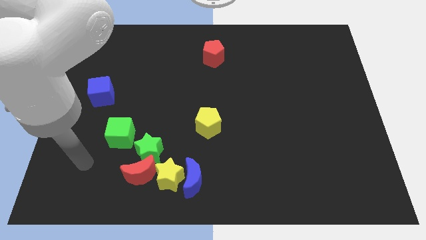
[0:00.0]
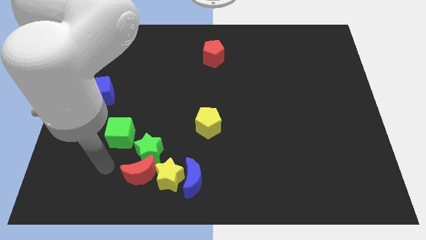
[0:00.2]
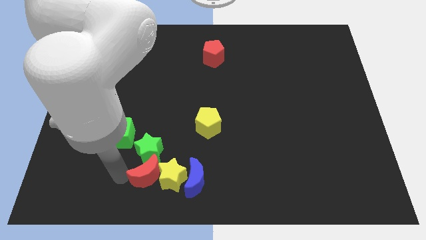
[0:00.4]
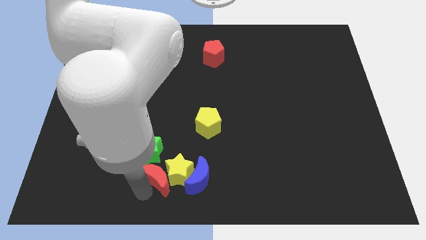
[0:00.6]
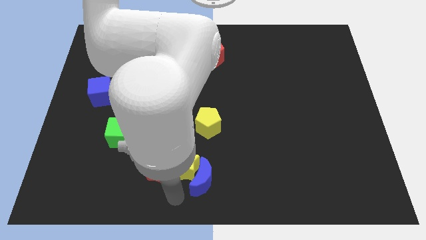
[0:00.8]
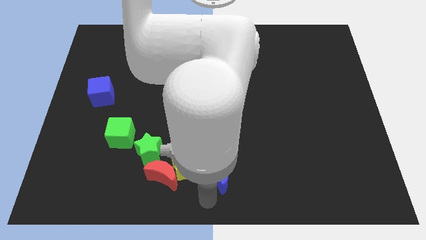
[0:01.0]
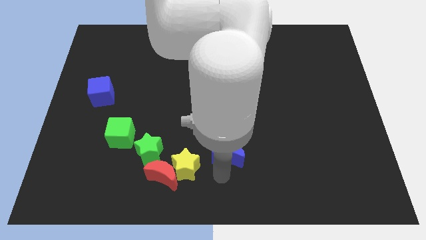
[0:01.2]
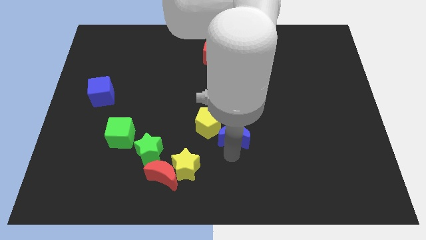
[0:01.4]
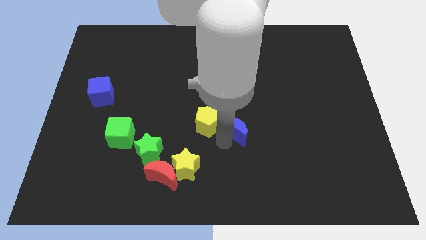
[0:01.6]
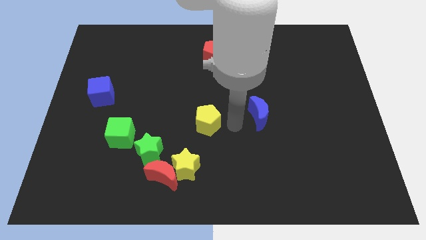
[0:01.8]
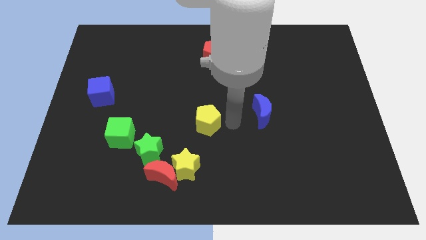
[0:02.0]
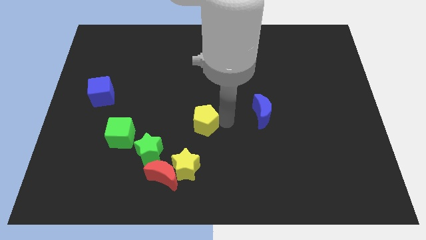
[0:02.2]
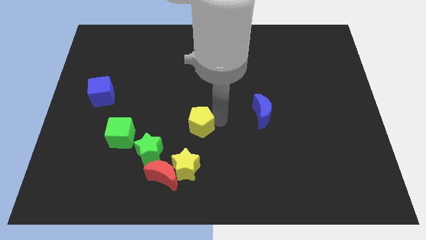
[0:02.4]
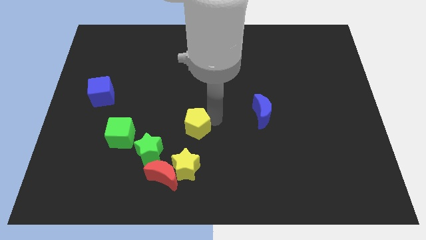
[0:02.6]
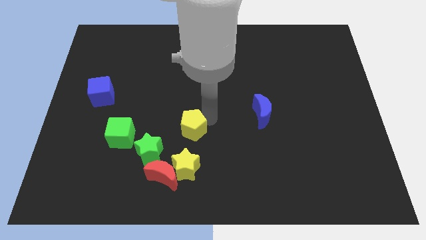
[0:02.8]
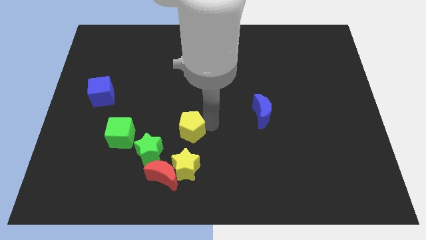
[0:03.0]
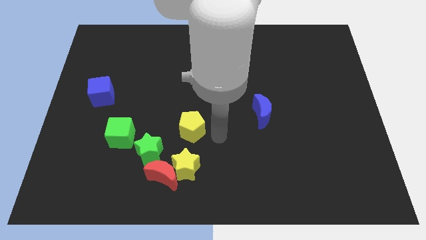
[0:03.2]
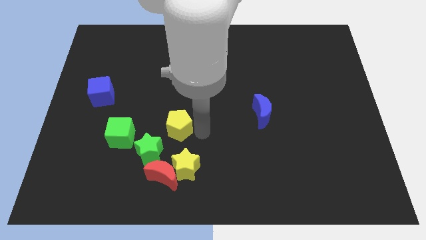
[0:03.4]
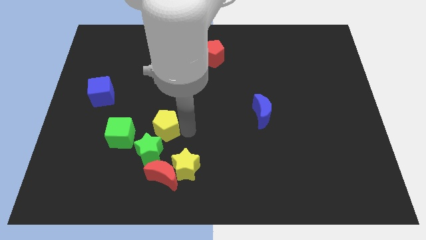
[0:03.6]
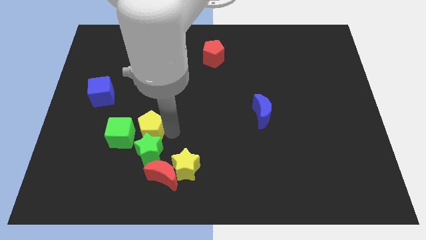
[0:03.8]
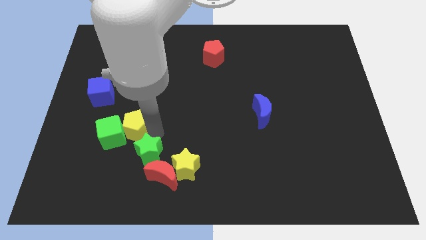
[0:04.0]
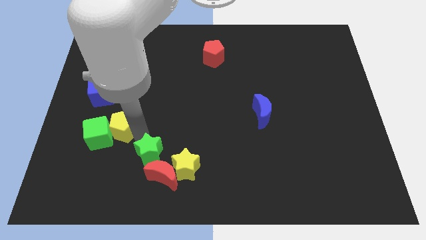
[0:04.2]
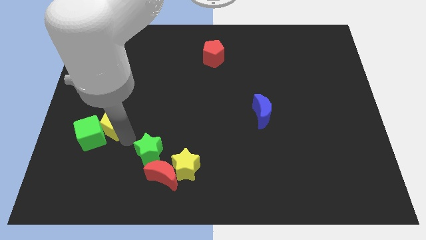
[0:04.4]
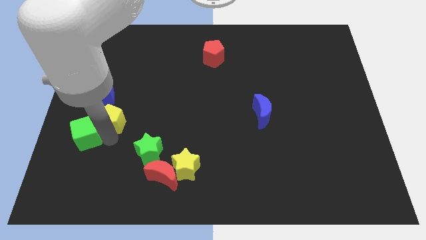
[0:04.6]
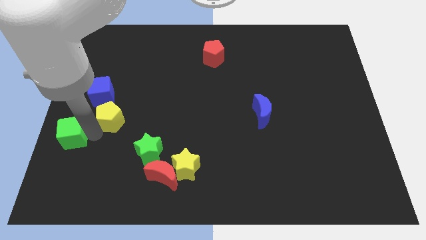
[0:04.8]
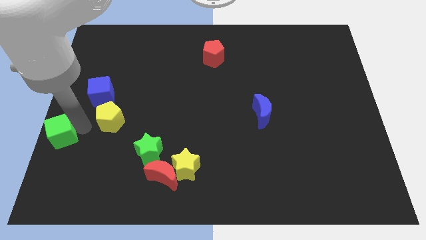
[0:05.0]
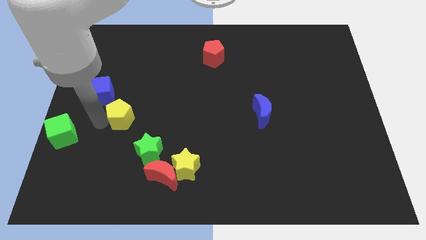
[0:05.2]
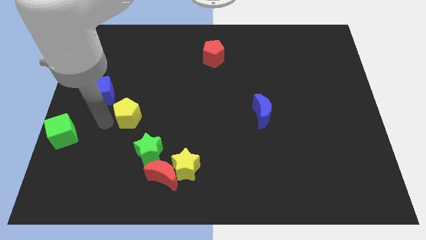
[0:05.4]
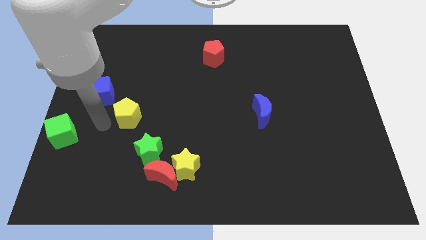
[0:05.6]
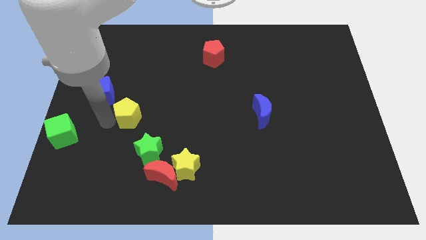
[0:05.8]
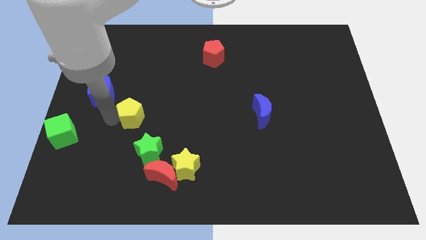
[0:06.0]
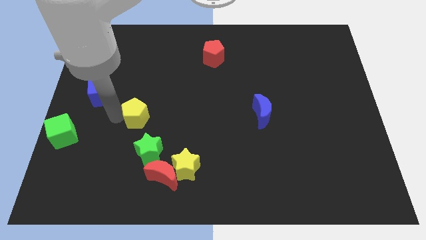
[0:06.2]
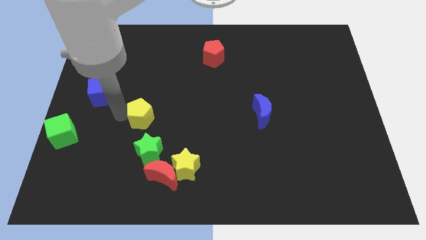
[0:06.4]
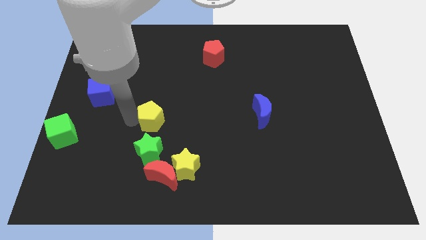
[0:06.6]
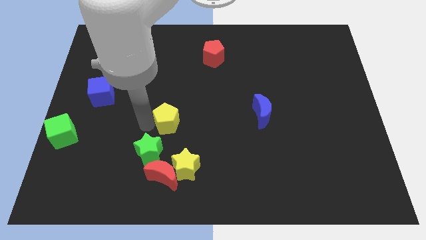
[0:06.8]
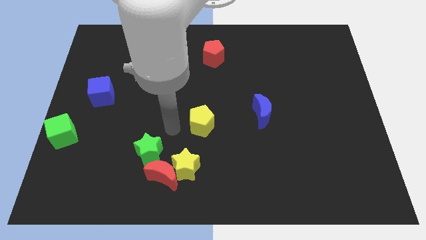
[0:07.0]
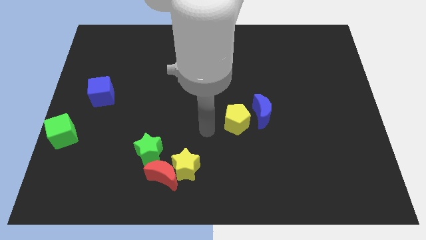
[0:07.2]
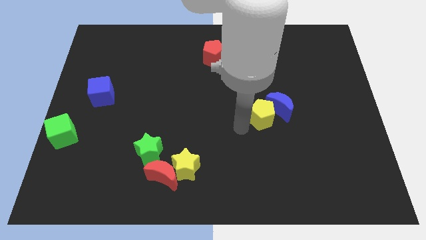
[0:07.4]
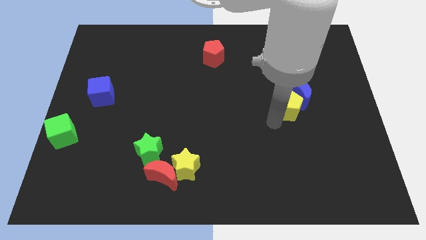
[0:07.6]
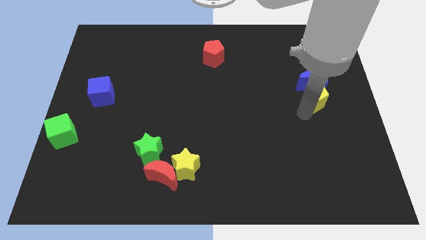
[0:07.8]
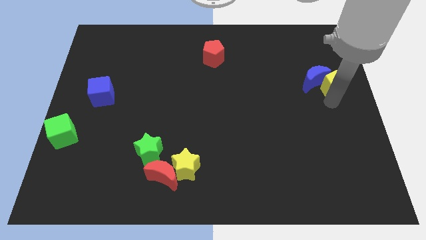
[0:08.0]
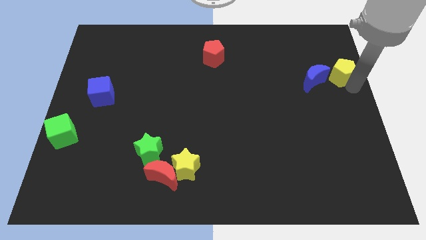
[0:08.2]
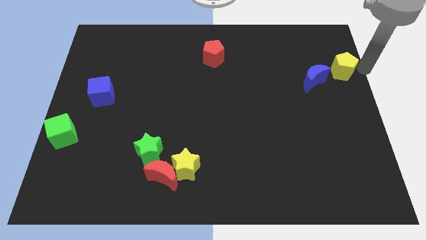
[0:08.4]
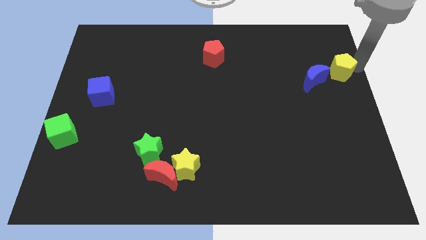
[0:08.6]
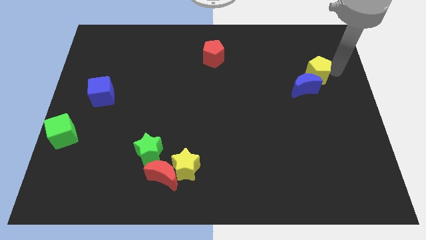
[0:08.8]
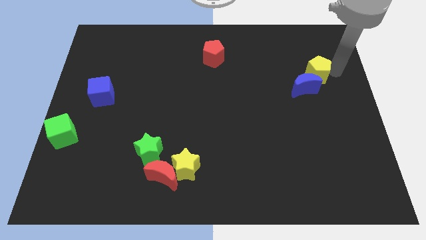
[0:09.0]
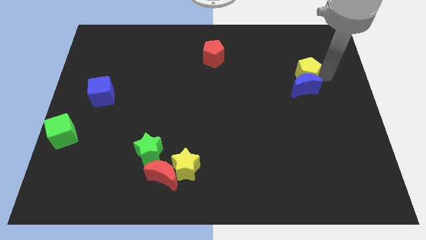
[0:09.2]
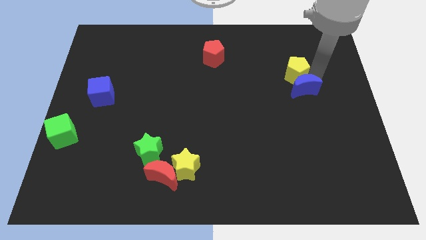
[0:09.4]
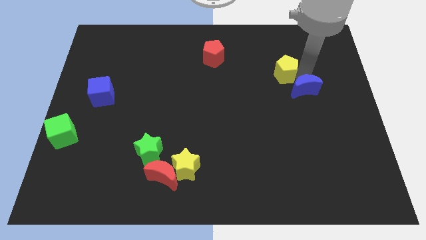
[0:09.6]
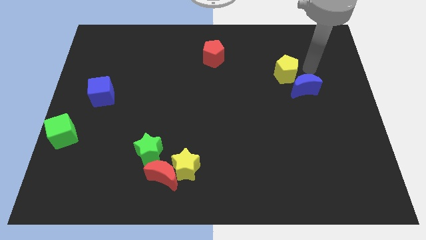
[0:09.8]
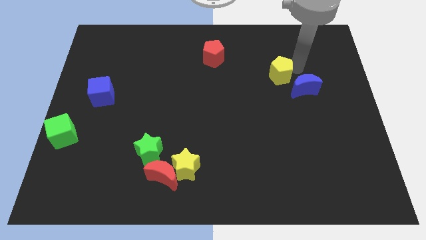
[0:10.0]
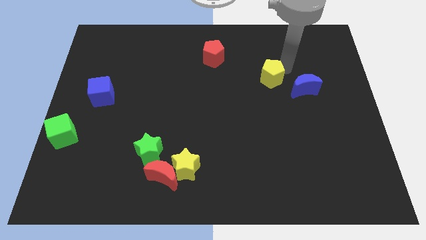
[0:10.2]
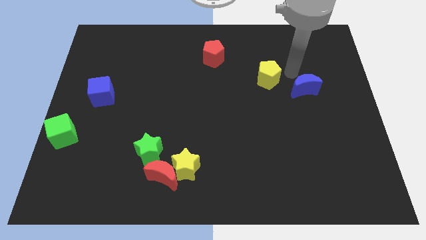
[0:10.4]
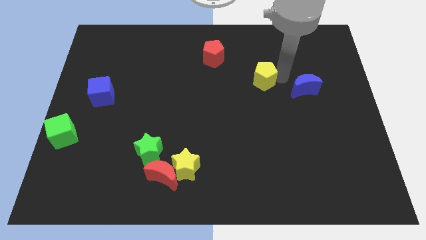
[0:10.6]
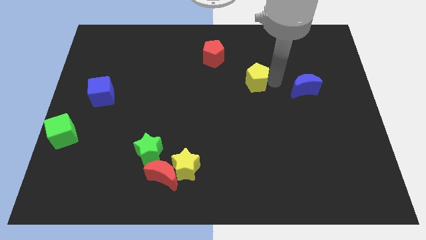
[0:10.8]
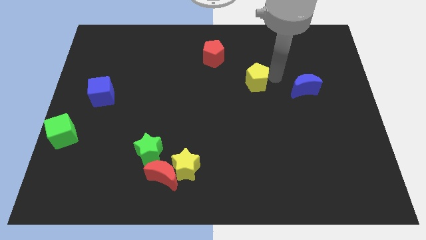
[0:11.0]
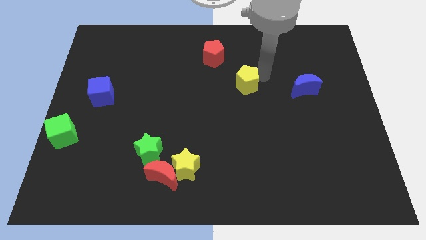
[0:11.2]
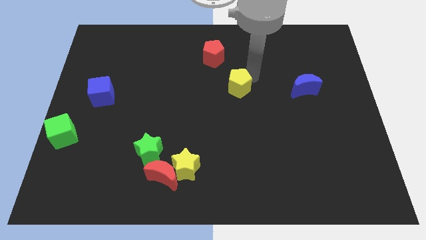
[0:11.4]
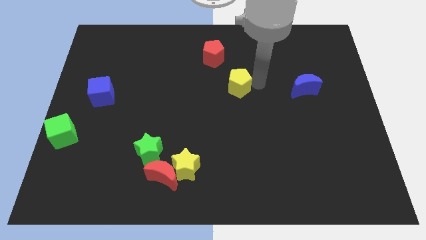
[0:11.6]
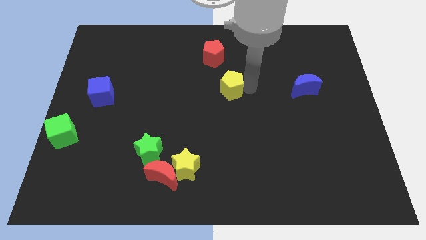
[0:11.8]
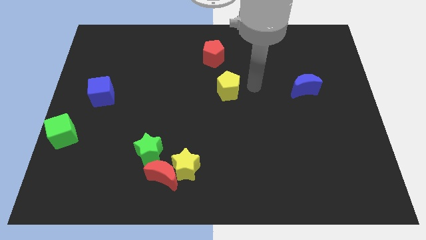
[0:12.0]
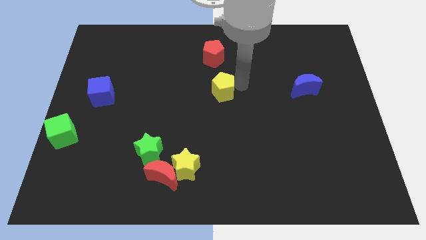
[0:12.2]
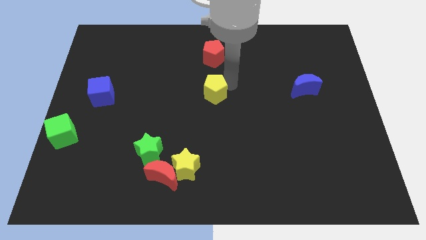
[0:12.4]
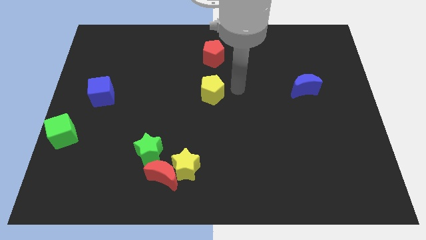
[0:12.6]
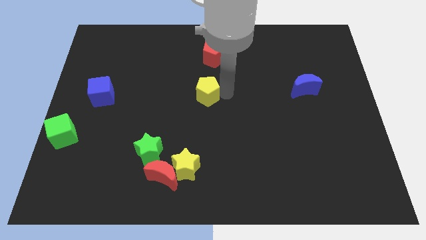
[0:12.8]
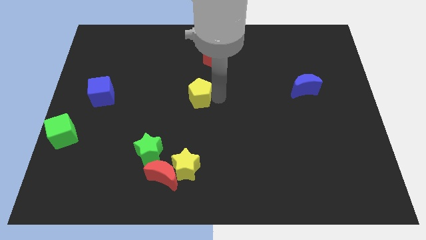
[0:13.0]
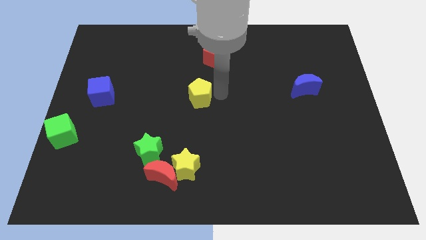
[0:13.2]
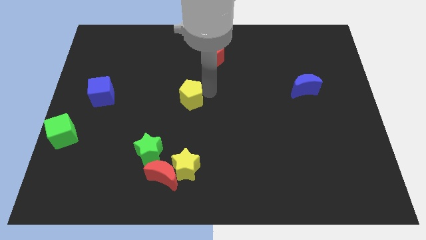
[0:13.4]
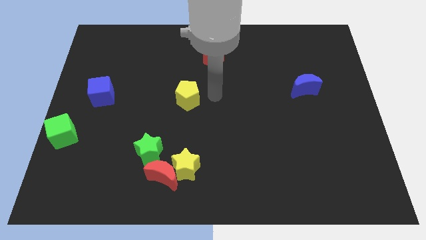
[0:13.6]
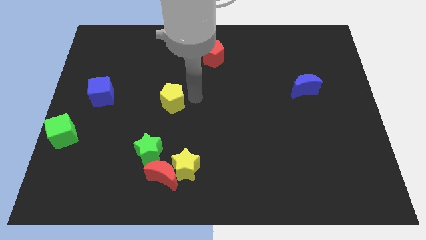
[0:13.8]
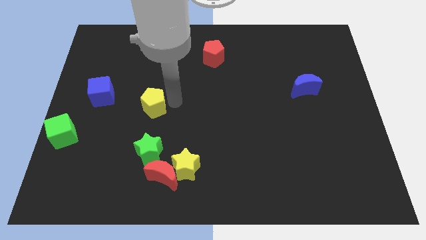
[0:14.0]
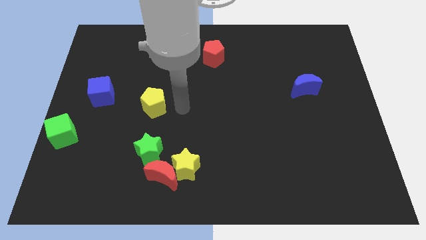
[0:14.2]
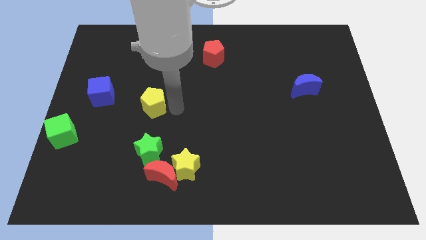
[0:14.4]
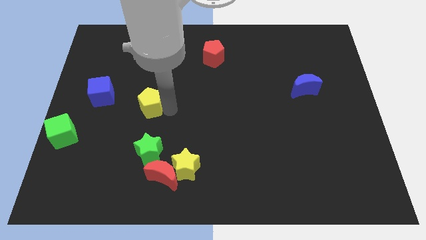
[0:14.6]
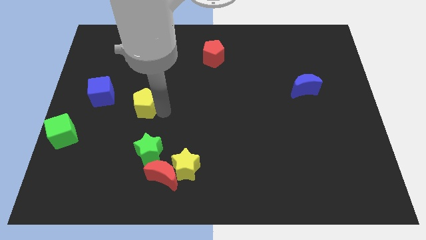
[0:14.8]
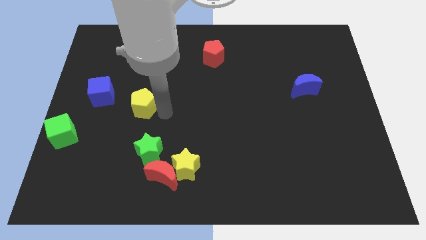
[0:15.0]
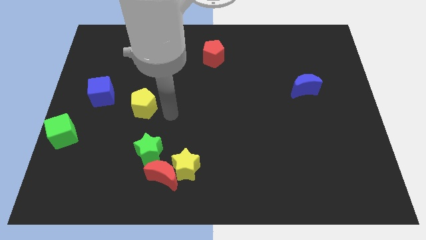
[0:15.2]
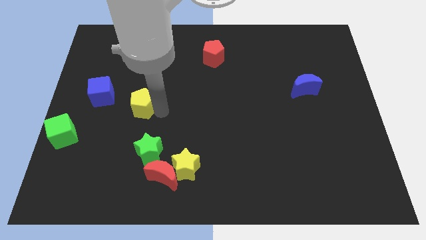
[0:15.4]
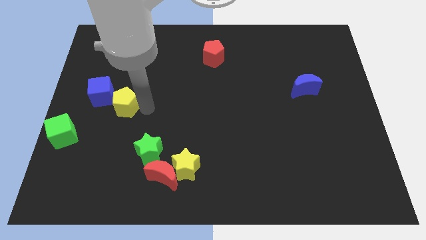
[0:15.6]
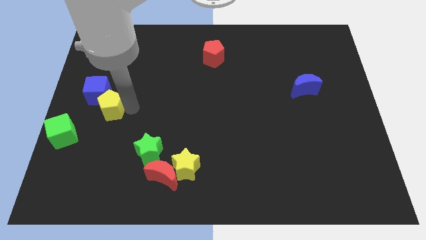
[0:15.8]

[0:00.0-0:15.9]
put the yellow pentagon close to the blue cube
